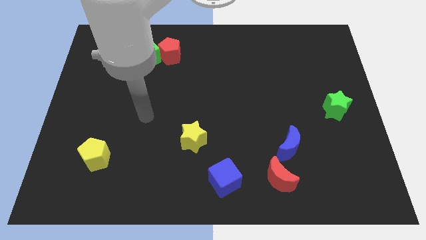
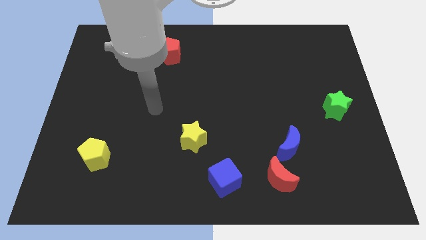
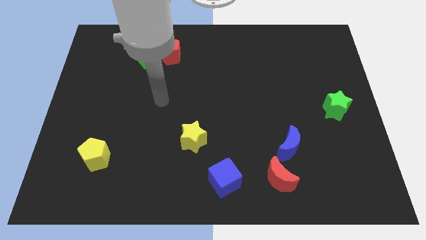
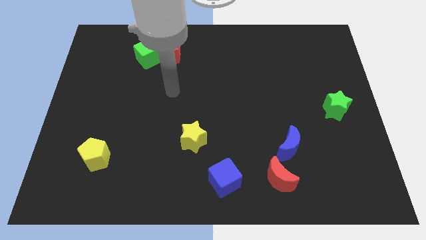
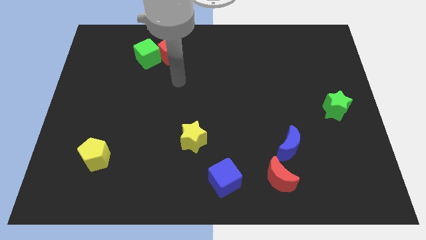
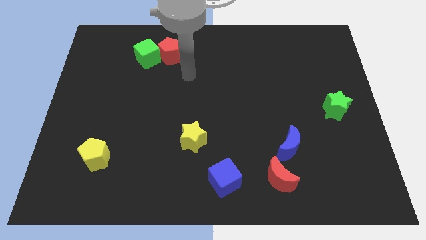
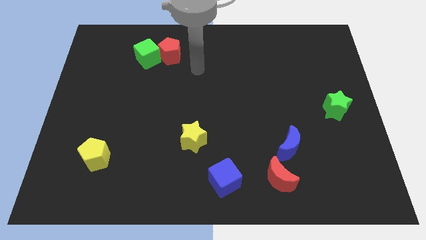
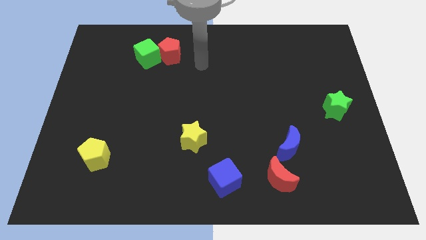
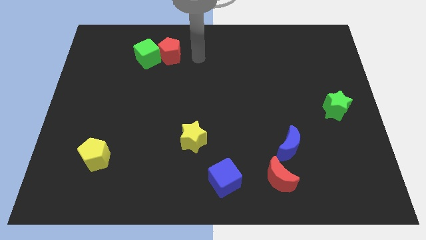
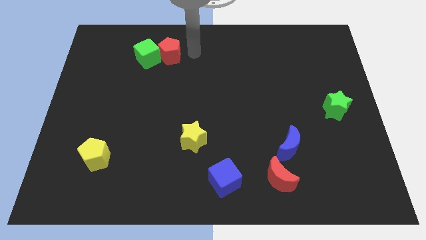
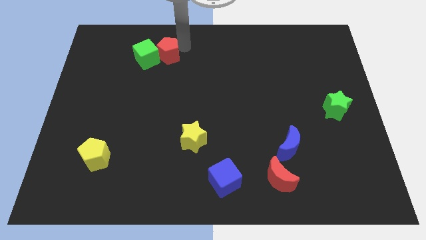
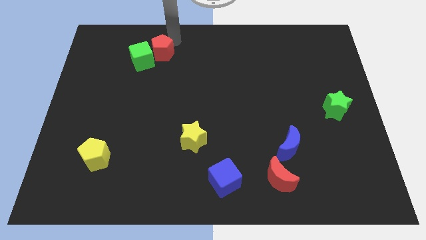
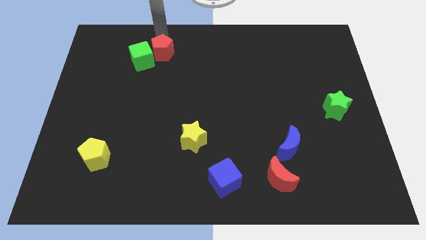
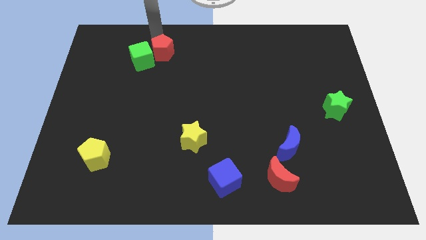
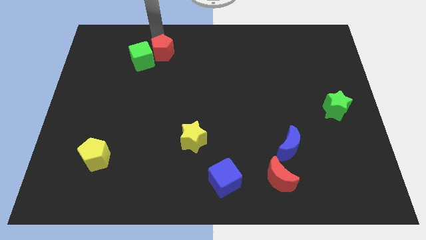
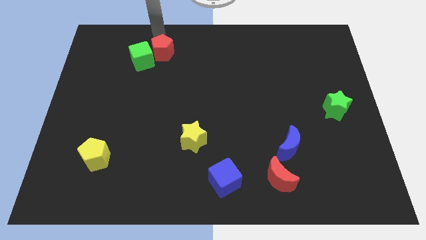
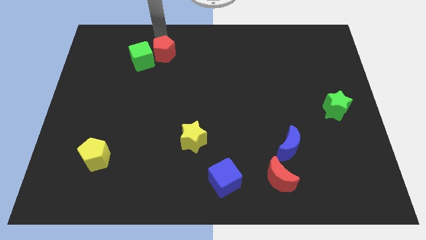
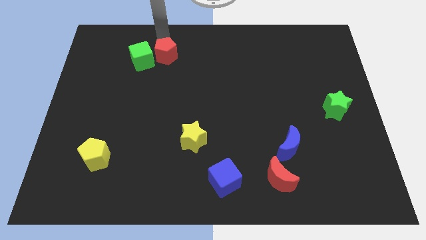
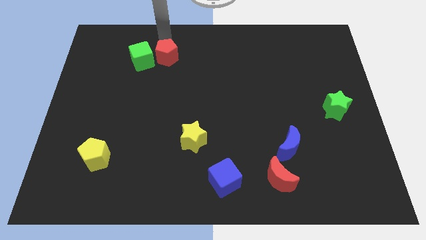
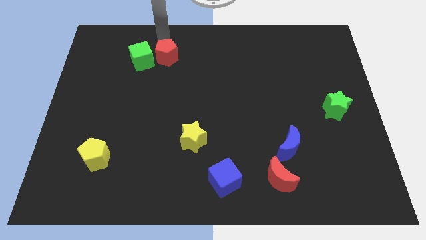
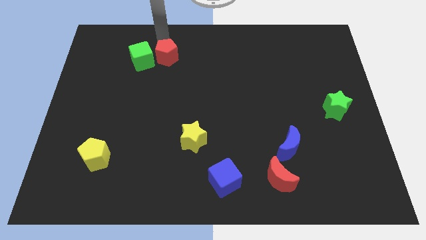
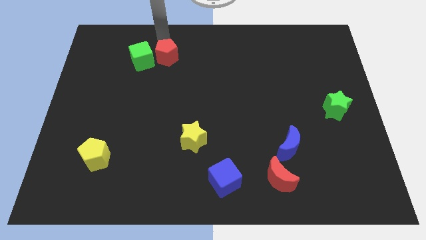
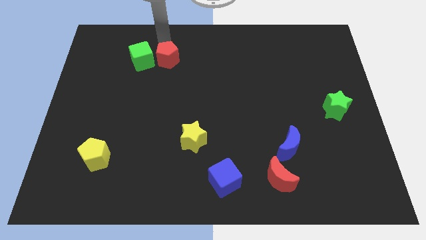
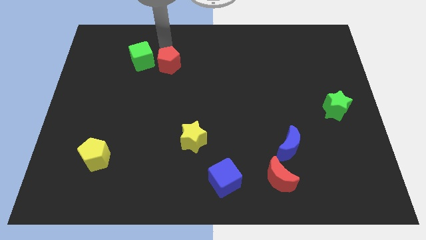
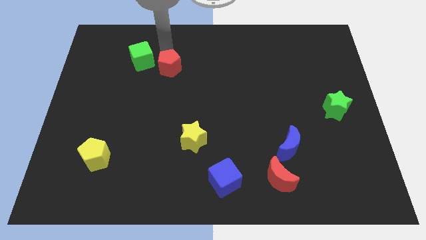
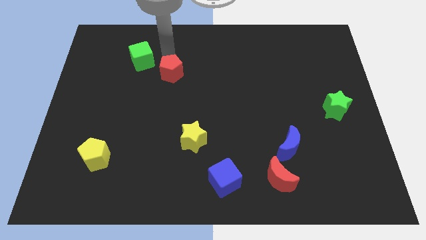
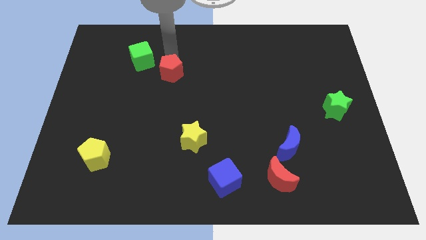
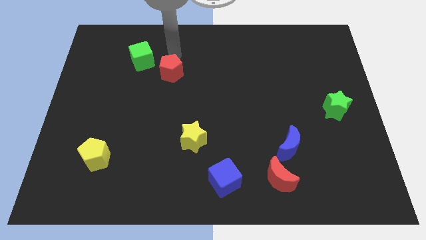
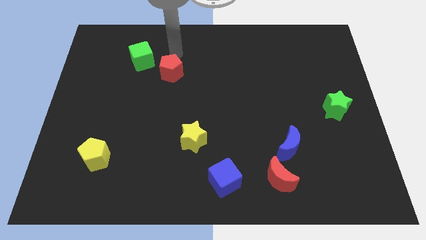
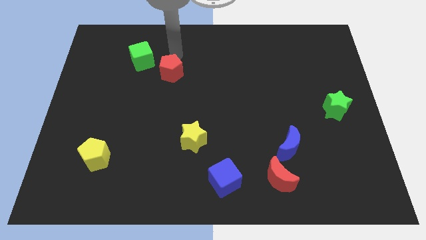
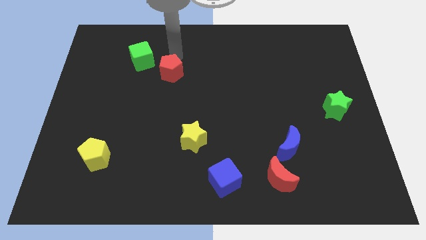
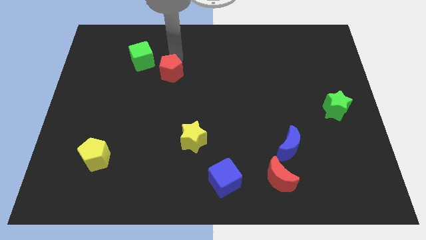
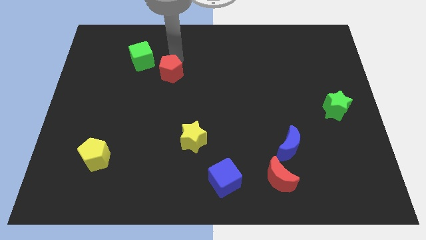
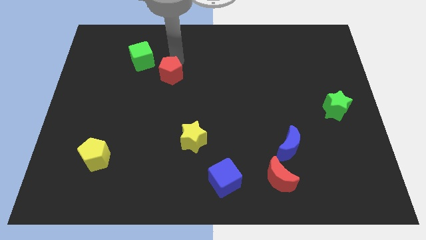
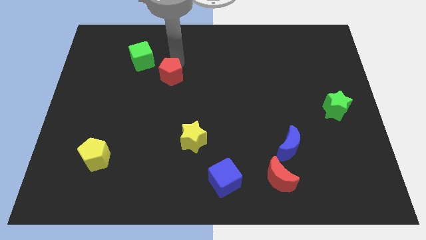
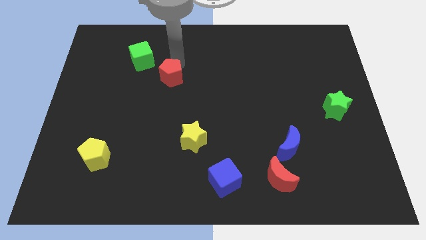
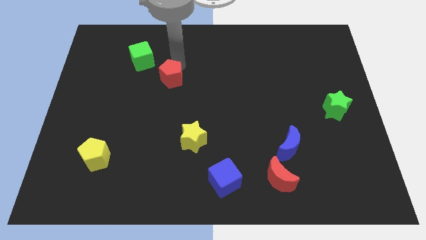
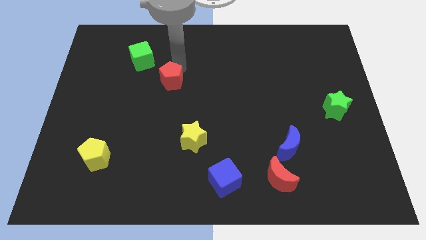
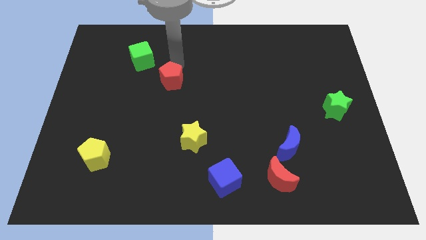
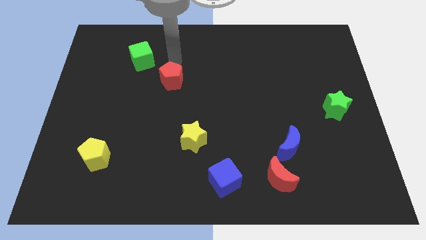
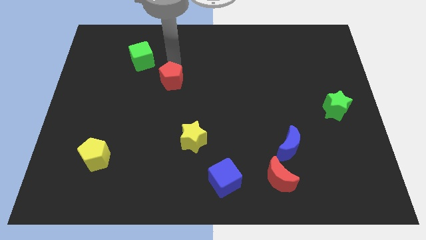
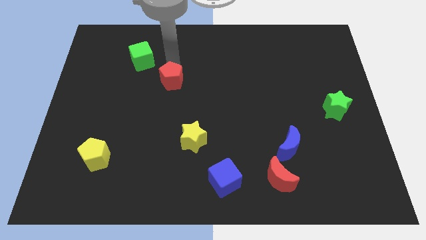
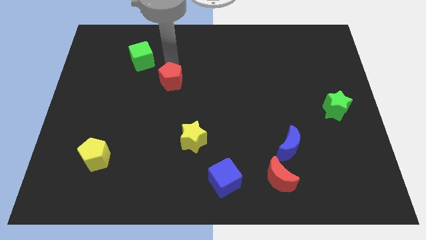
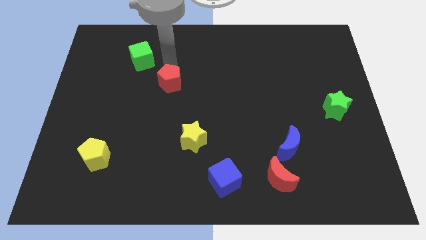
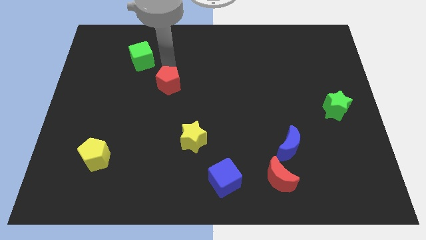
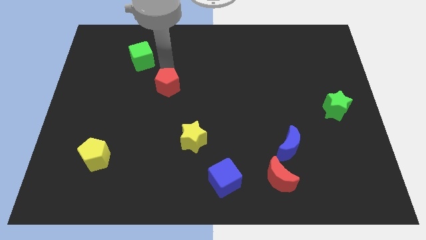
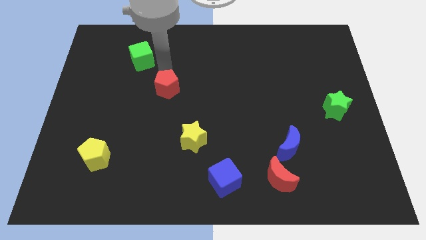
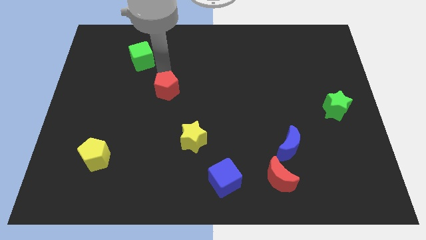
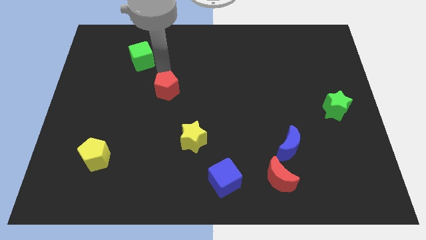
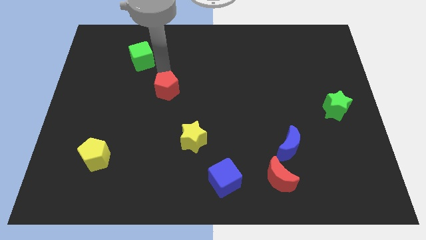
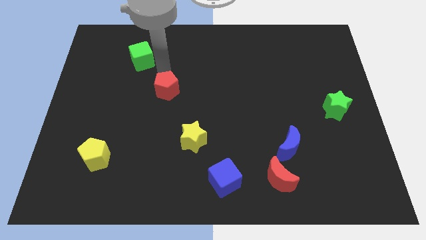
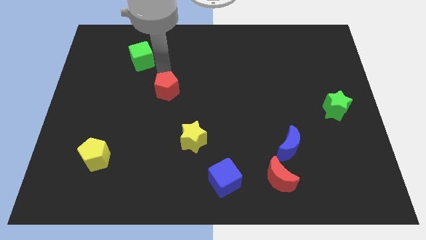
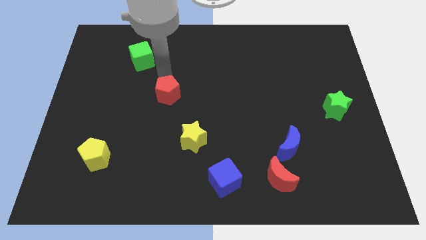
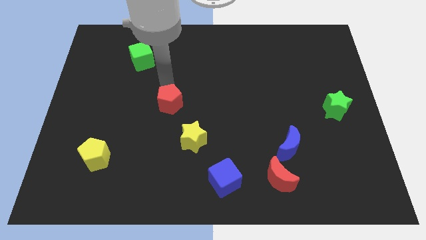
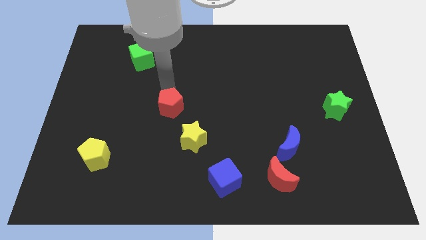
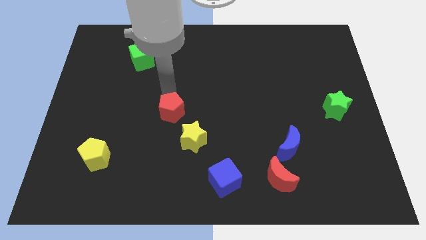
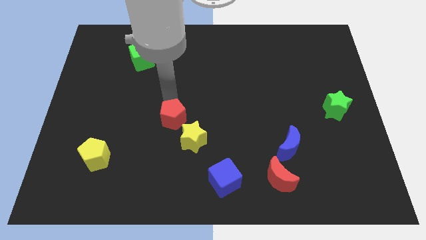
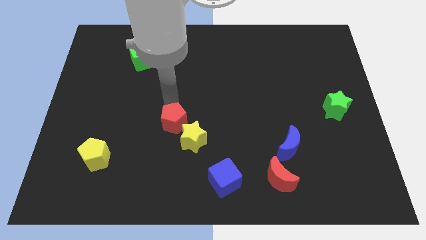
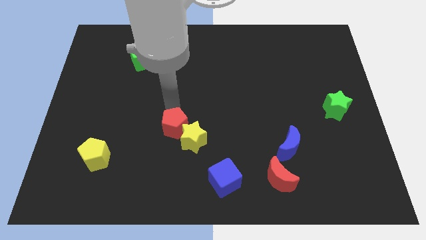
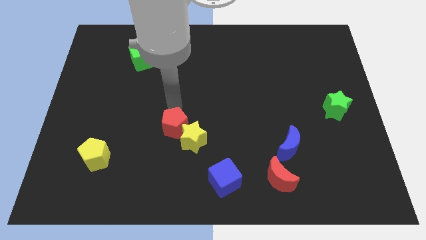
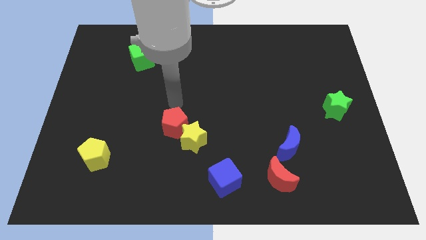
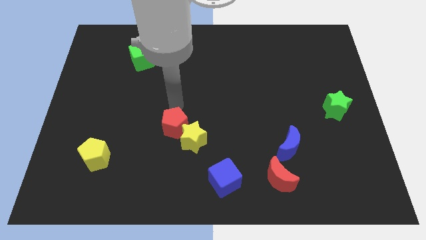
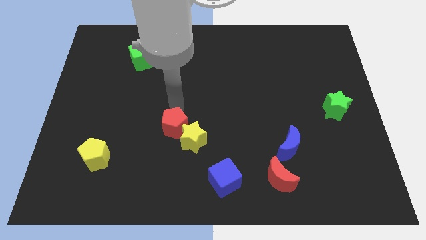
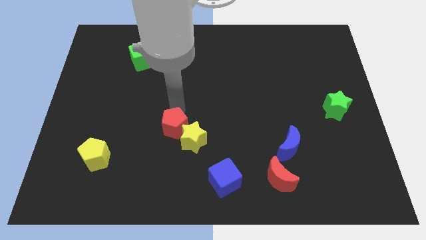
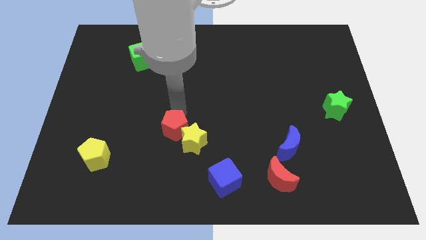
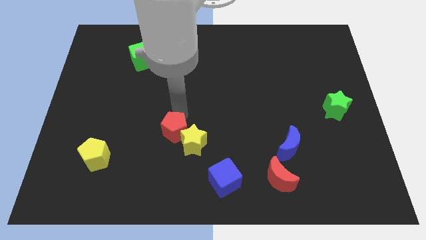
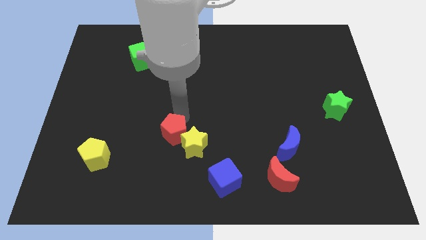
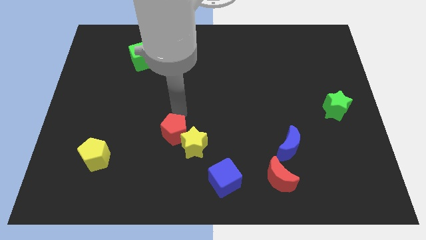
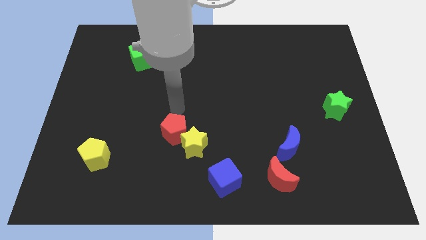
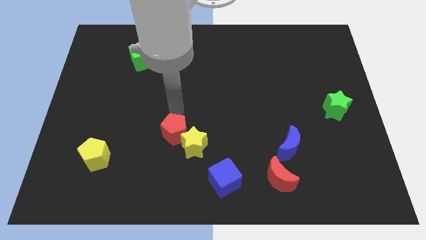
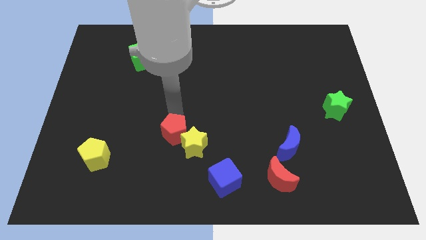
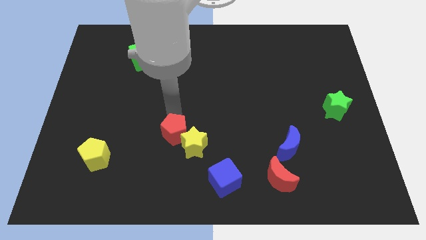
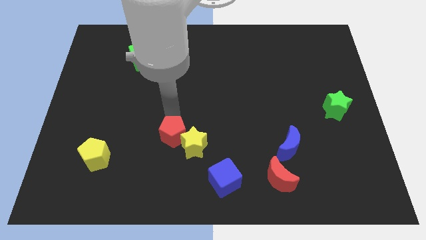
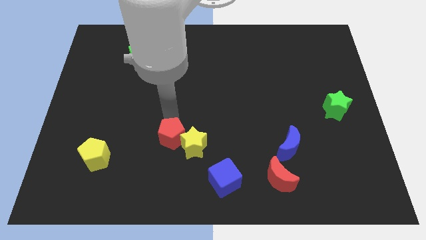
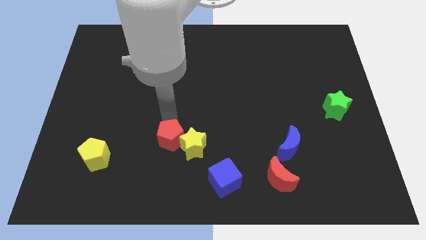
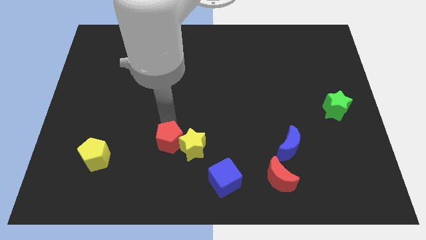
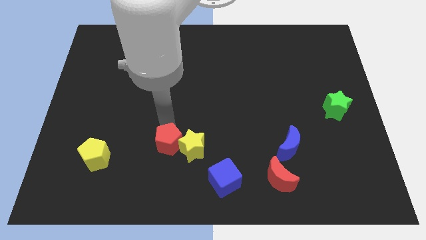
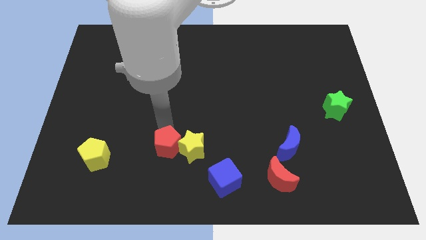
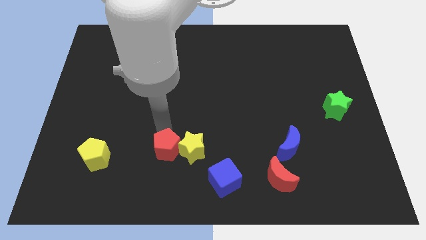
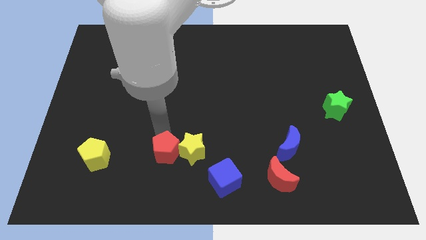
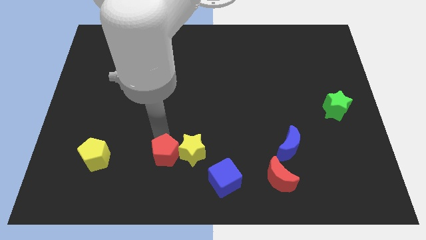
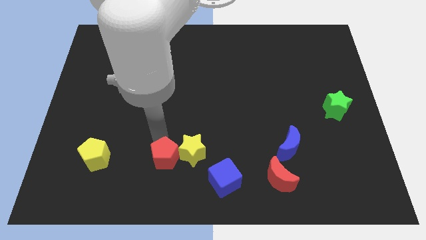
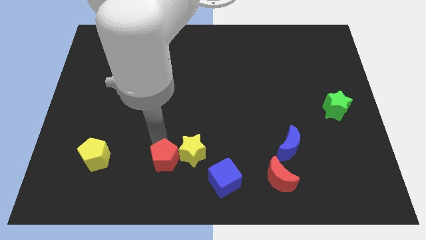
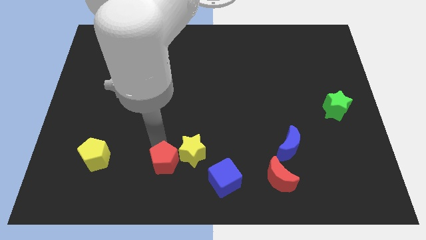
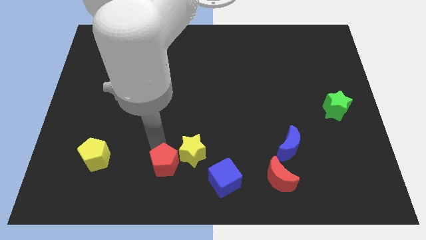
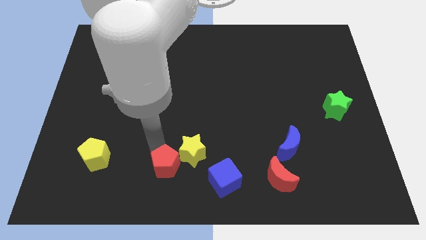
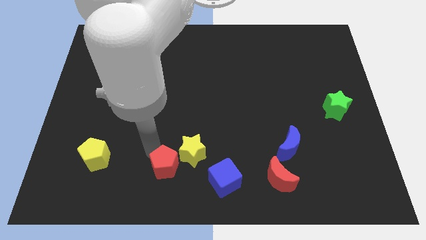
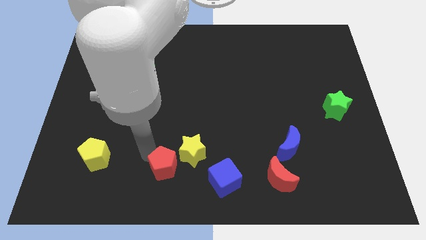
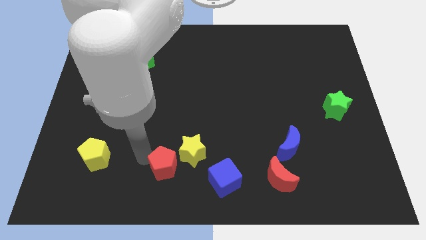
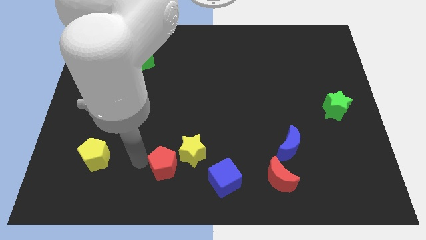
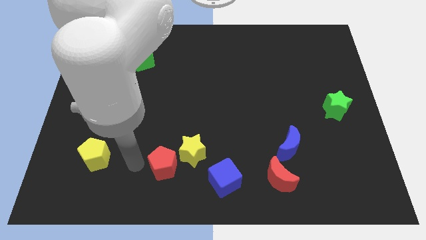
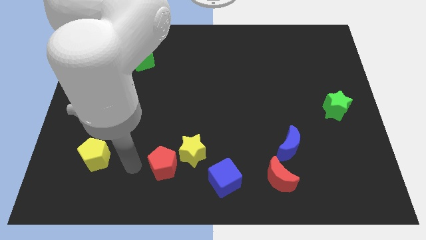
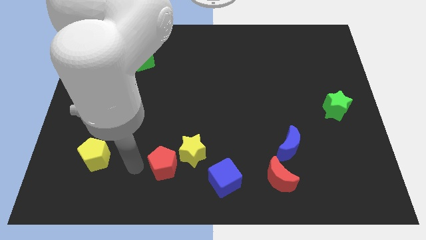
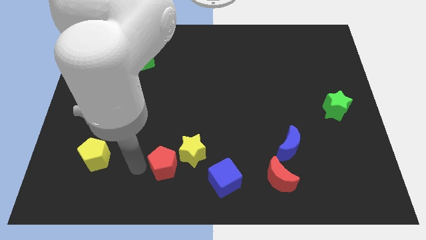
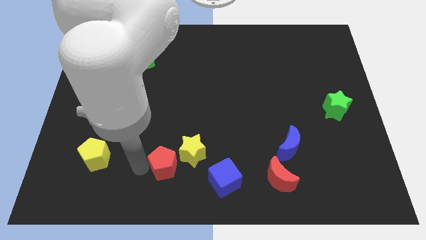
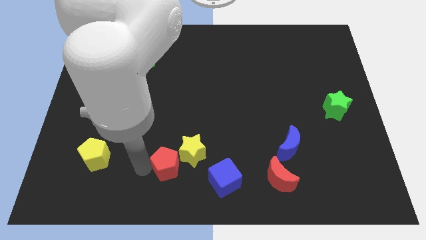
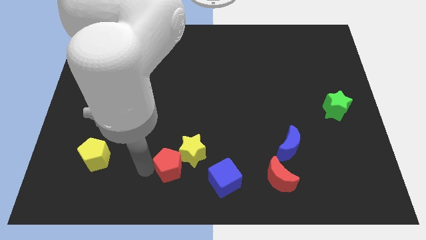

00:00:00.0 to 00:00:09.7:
move the red pentagon to the bottom
